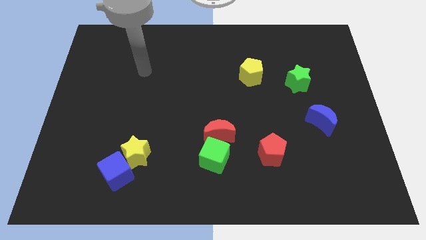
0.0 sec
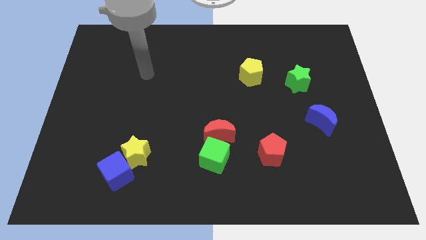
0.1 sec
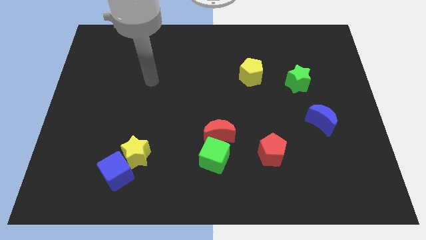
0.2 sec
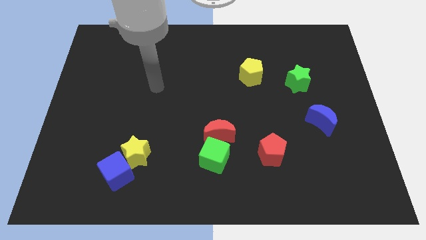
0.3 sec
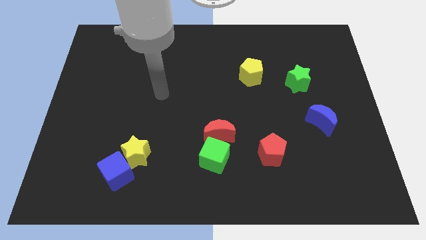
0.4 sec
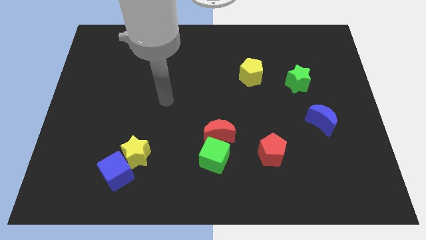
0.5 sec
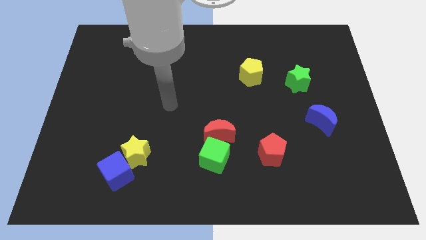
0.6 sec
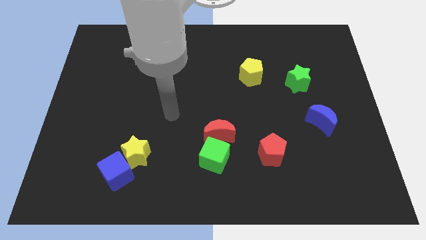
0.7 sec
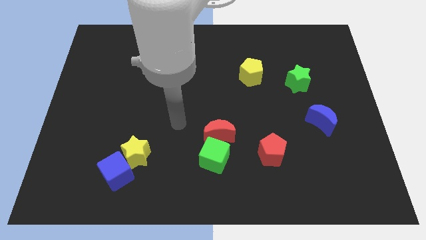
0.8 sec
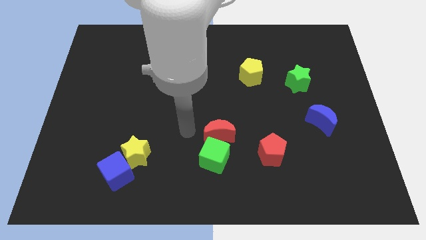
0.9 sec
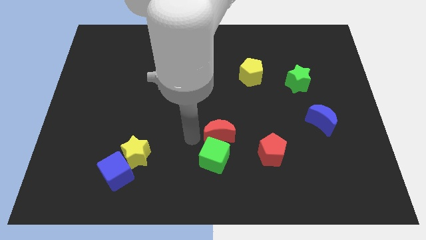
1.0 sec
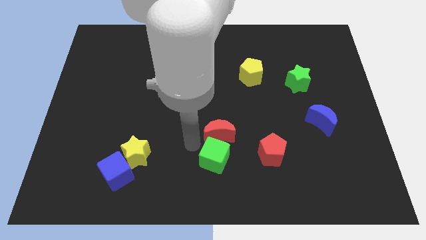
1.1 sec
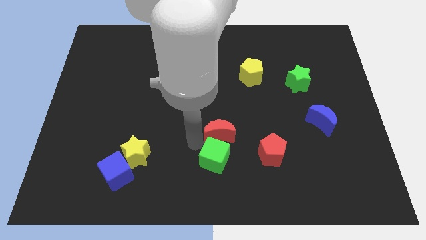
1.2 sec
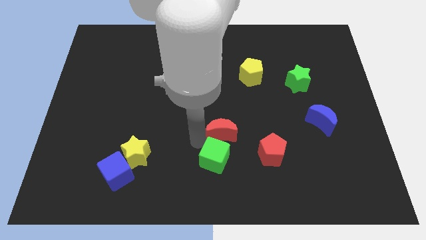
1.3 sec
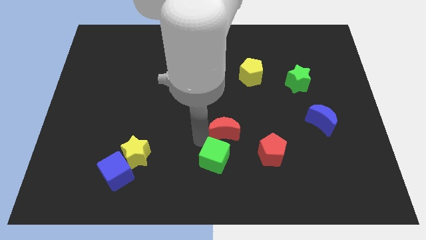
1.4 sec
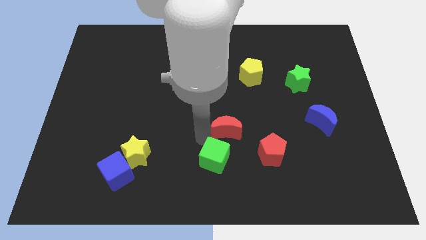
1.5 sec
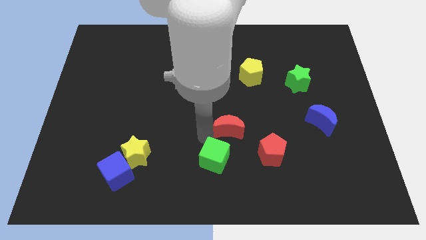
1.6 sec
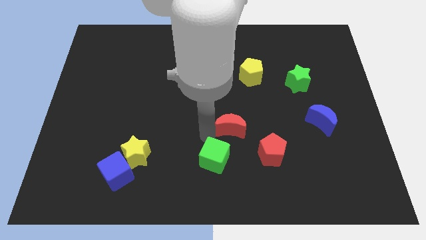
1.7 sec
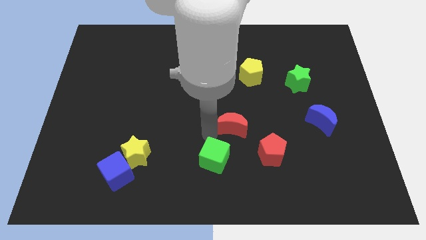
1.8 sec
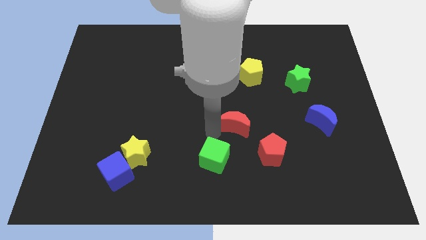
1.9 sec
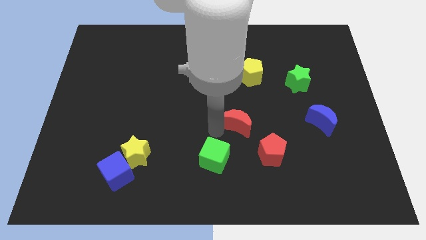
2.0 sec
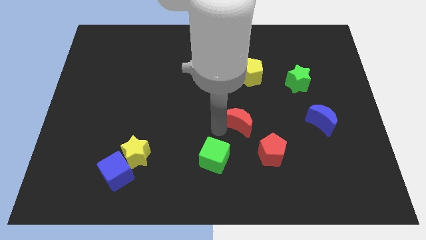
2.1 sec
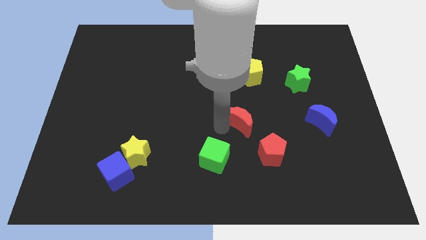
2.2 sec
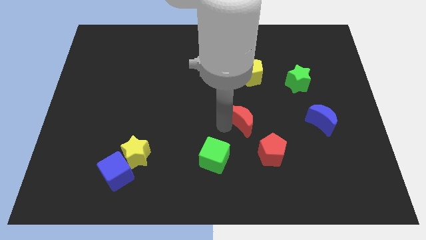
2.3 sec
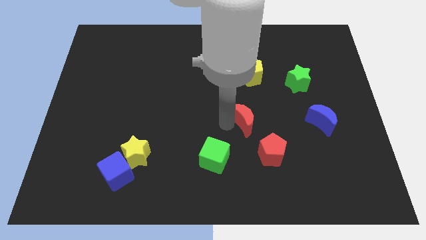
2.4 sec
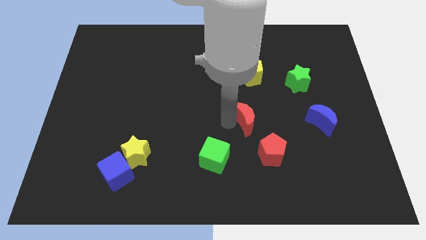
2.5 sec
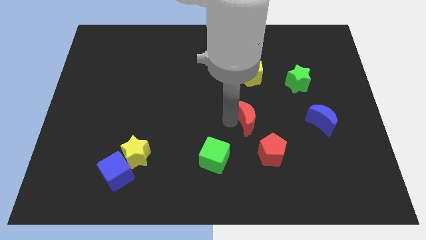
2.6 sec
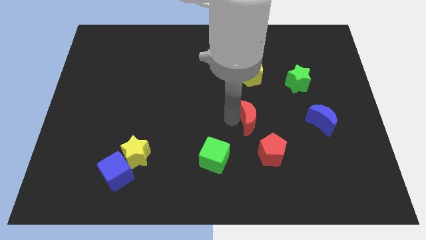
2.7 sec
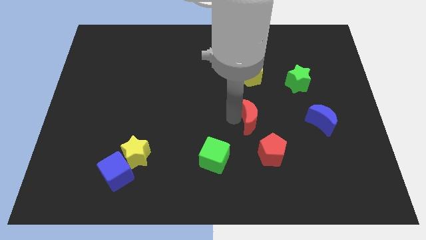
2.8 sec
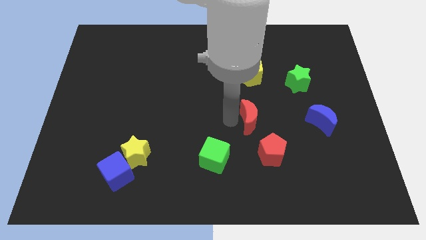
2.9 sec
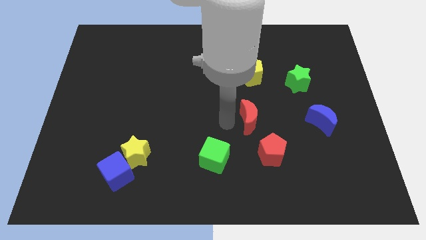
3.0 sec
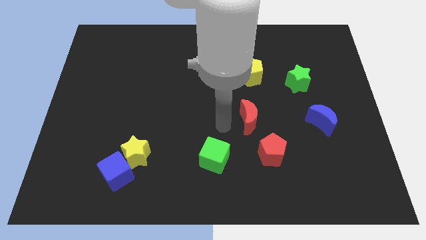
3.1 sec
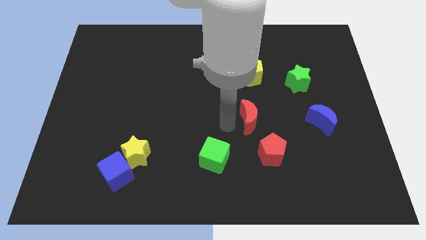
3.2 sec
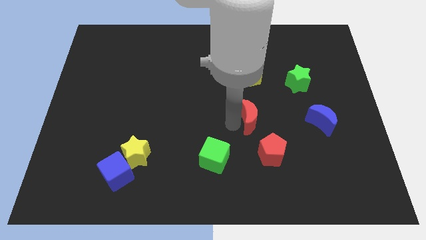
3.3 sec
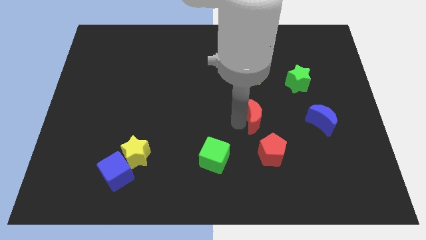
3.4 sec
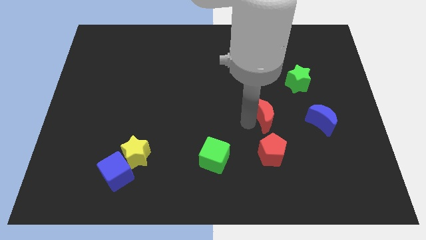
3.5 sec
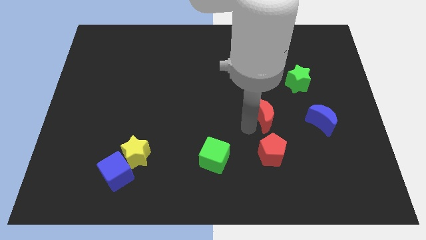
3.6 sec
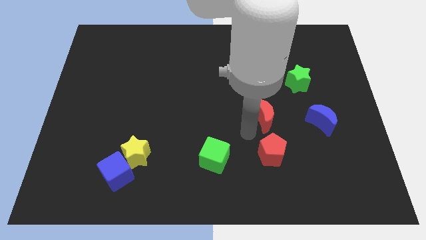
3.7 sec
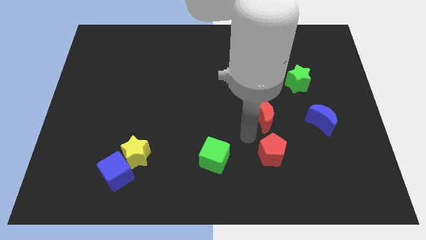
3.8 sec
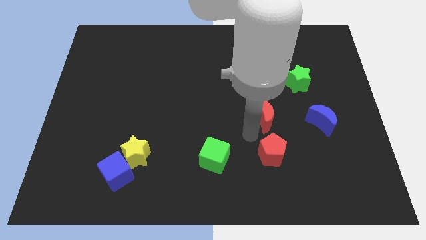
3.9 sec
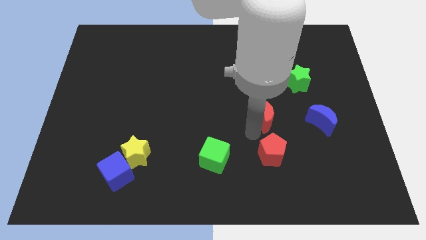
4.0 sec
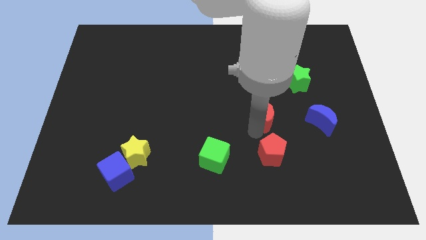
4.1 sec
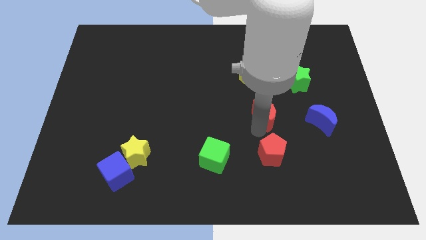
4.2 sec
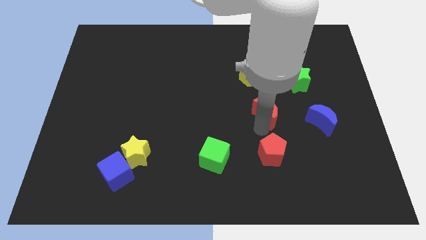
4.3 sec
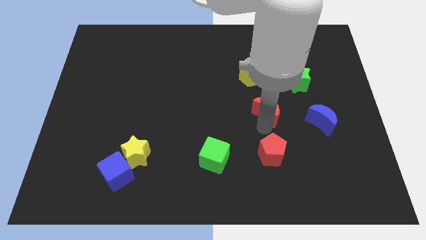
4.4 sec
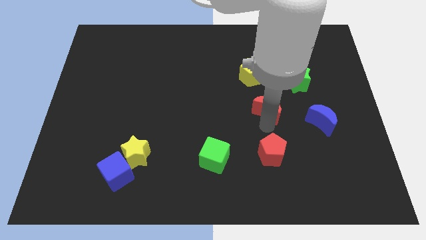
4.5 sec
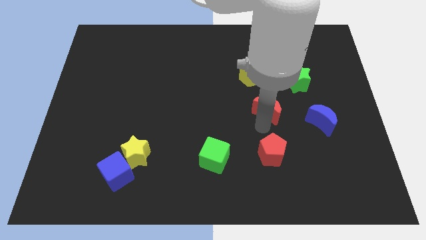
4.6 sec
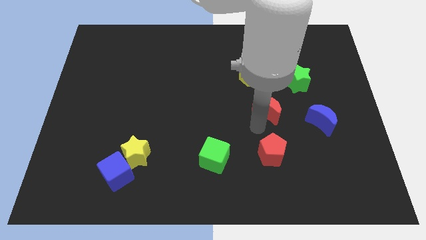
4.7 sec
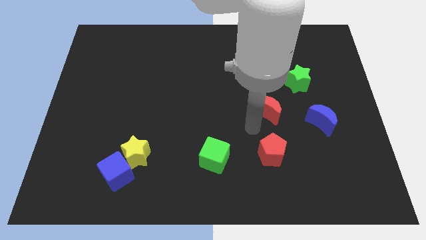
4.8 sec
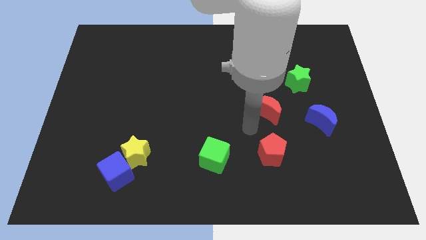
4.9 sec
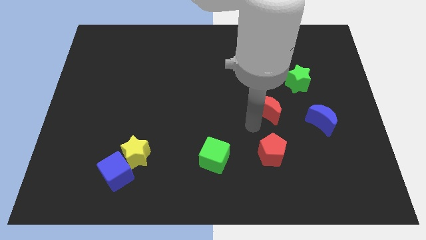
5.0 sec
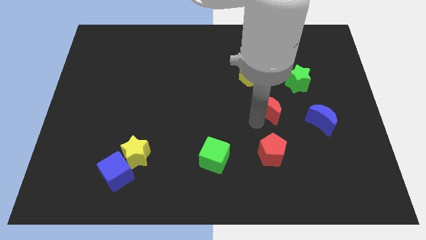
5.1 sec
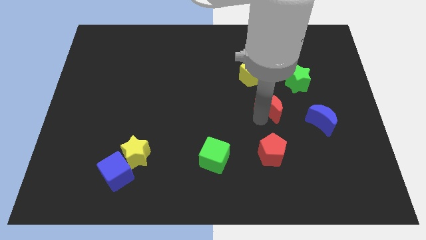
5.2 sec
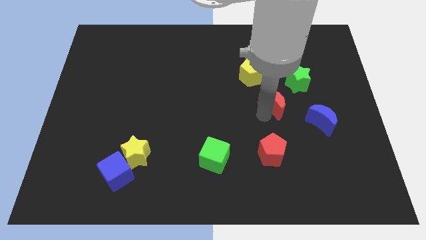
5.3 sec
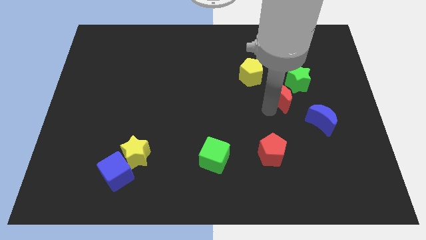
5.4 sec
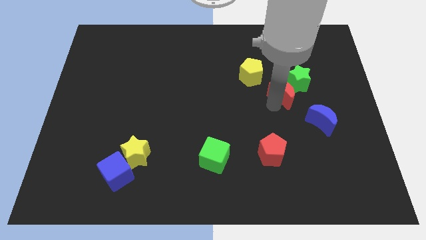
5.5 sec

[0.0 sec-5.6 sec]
slide the red moon next to the green star

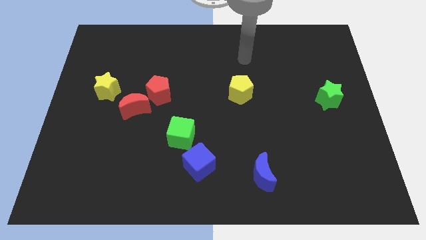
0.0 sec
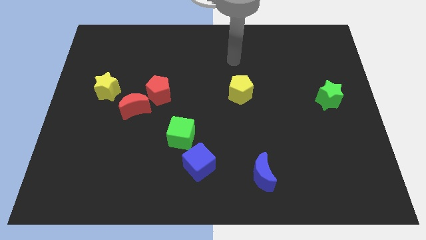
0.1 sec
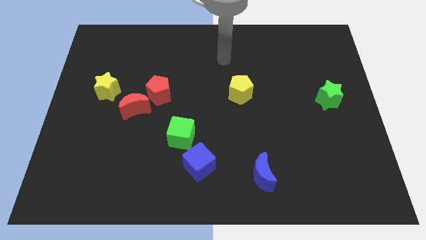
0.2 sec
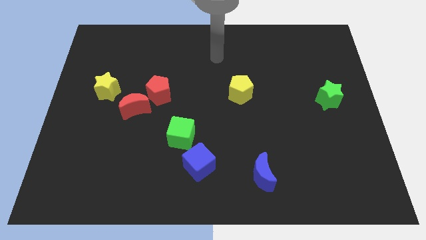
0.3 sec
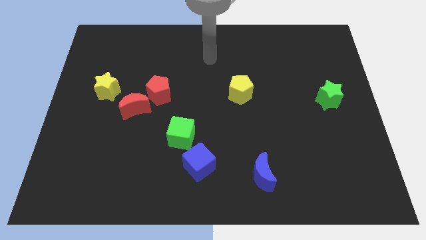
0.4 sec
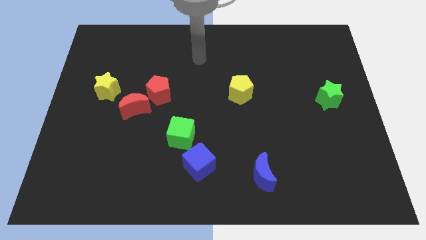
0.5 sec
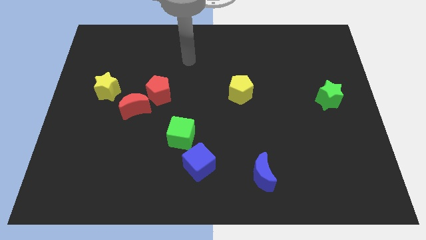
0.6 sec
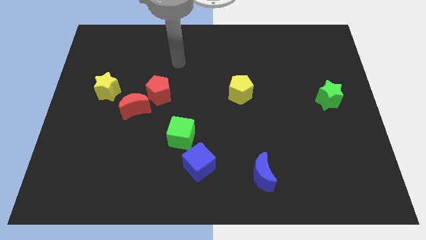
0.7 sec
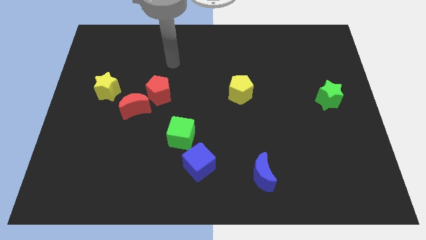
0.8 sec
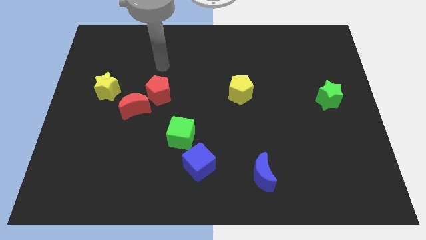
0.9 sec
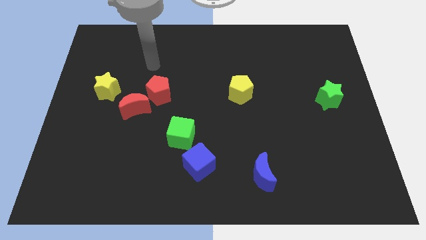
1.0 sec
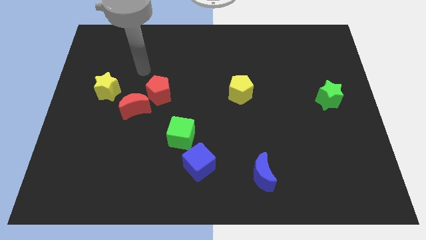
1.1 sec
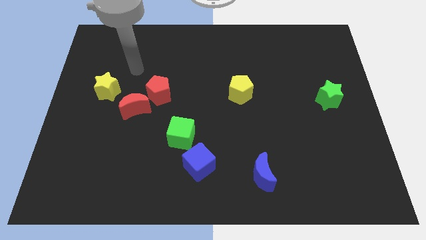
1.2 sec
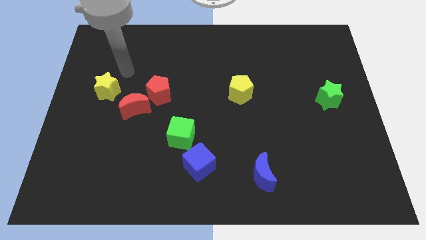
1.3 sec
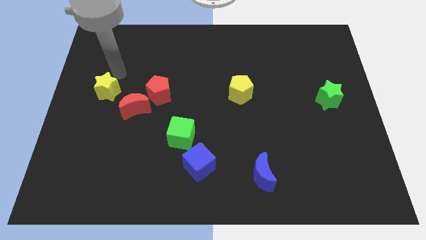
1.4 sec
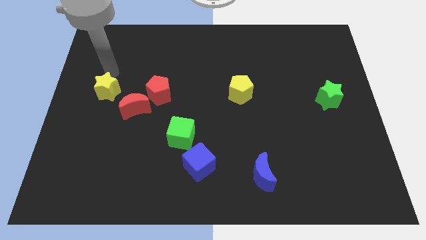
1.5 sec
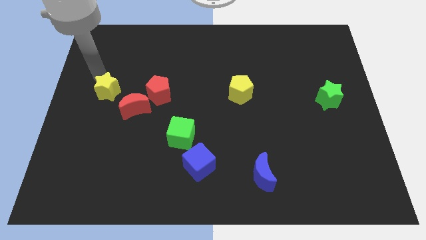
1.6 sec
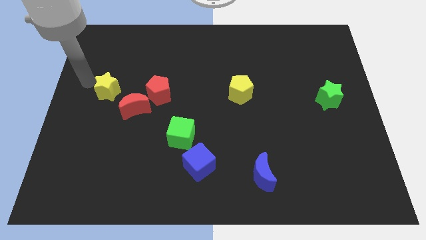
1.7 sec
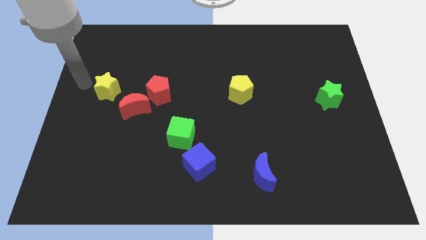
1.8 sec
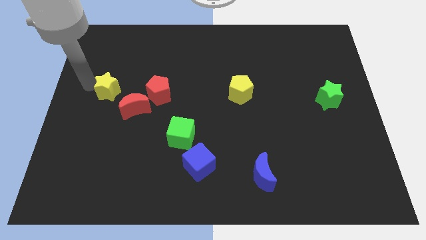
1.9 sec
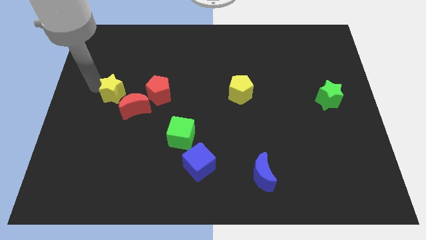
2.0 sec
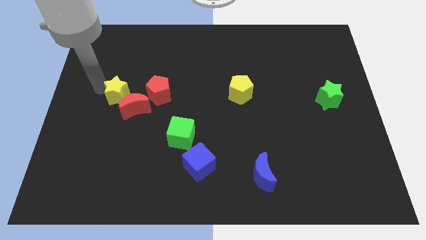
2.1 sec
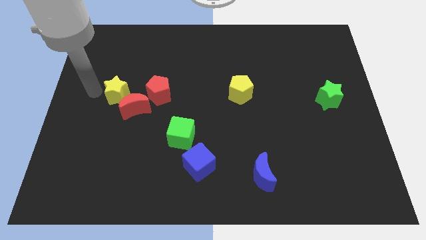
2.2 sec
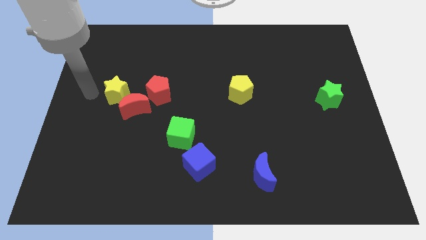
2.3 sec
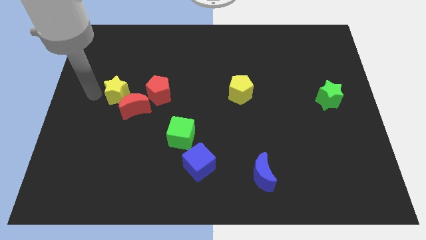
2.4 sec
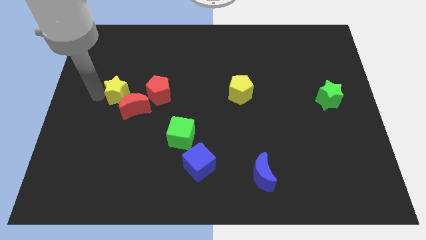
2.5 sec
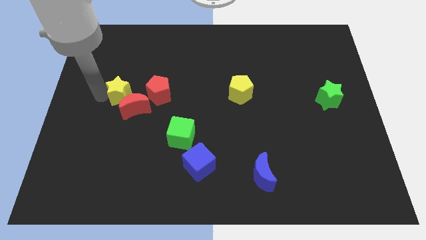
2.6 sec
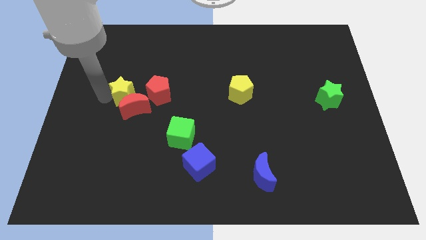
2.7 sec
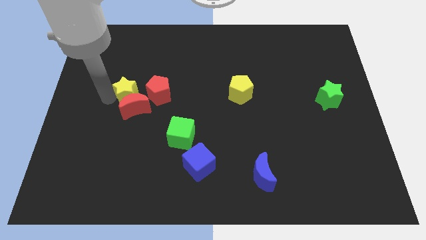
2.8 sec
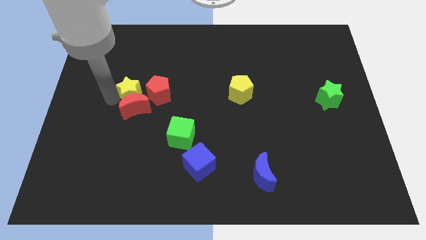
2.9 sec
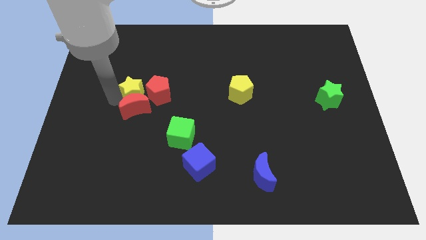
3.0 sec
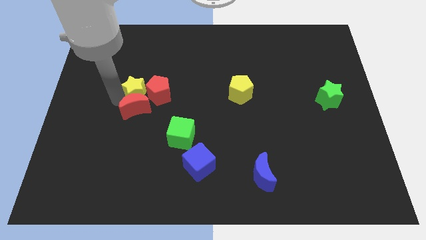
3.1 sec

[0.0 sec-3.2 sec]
slide the yellow star next to the red pentagon
